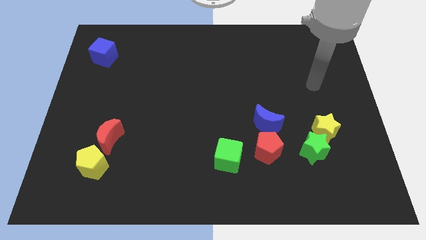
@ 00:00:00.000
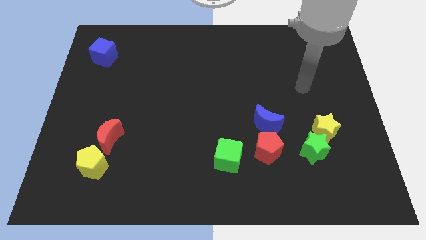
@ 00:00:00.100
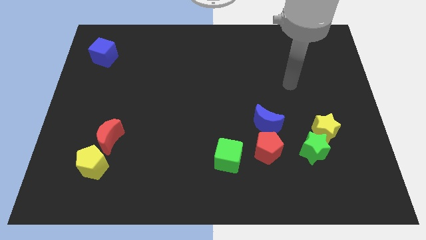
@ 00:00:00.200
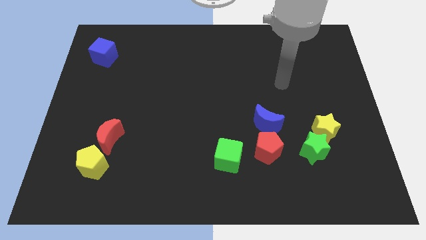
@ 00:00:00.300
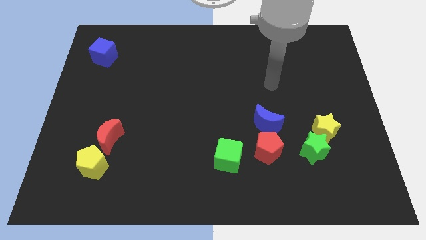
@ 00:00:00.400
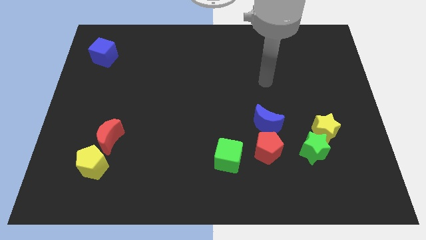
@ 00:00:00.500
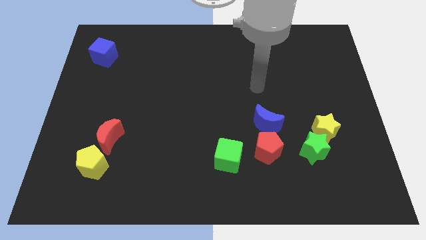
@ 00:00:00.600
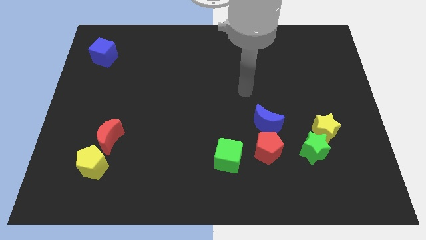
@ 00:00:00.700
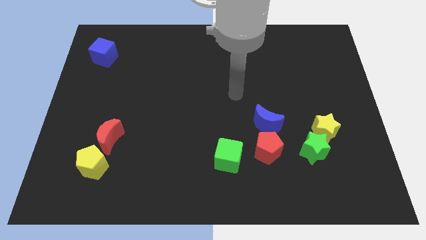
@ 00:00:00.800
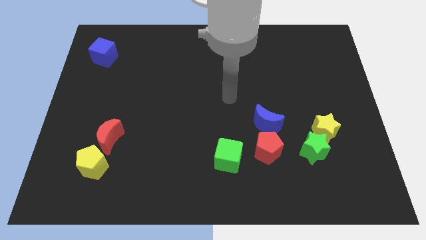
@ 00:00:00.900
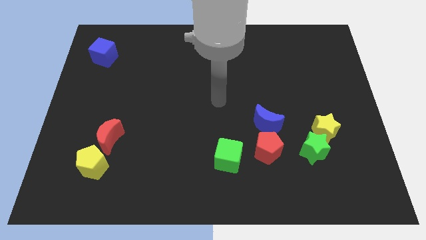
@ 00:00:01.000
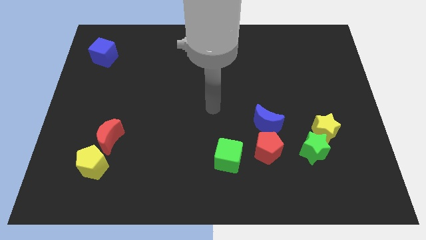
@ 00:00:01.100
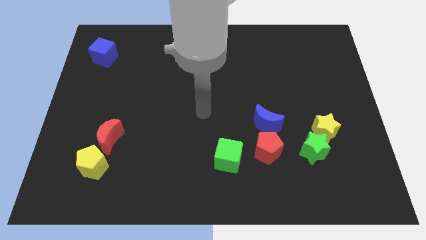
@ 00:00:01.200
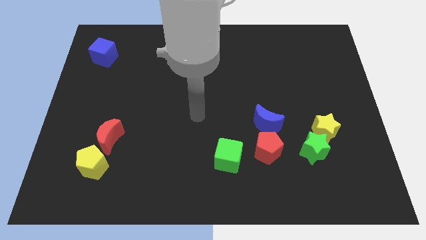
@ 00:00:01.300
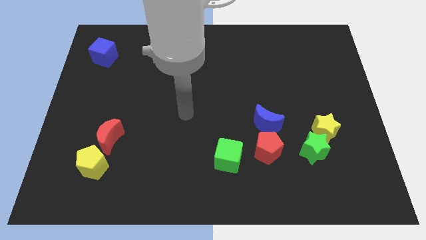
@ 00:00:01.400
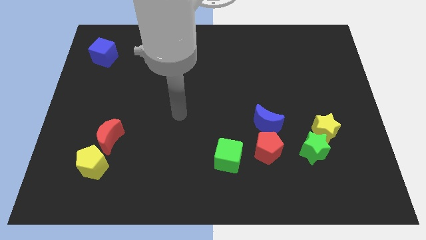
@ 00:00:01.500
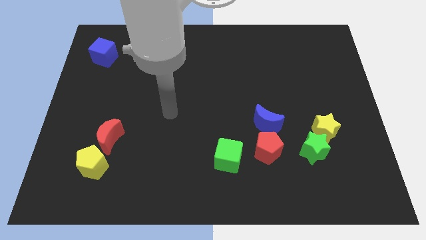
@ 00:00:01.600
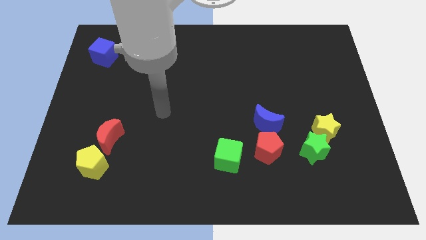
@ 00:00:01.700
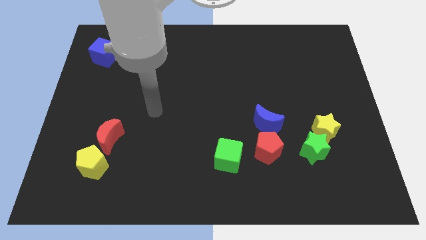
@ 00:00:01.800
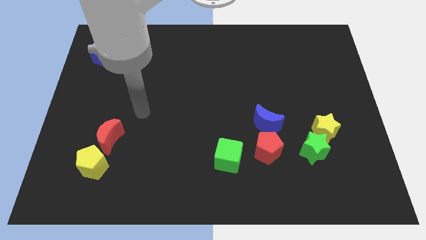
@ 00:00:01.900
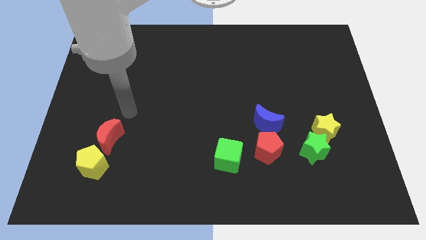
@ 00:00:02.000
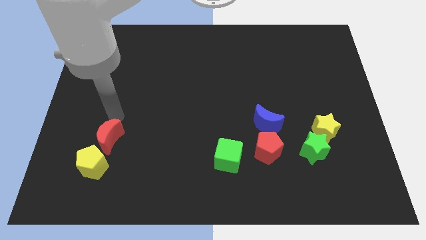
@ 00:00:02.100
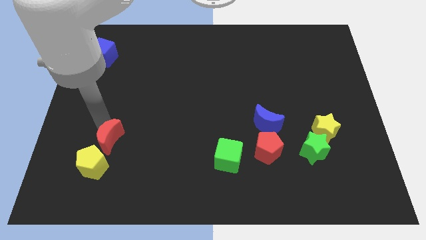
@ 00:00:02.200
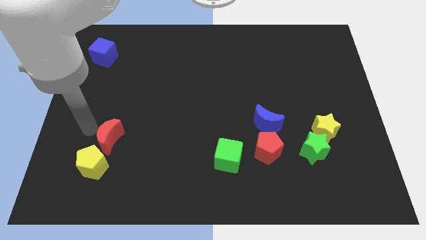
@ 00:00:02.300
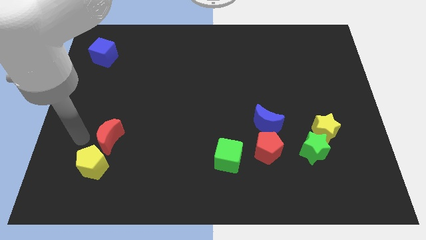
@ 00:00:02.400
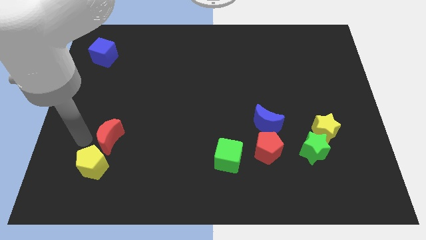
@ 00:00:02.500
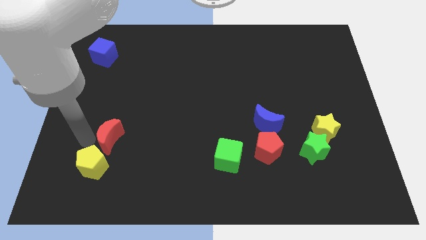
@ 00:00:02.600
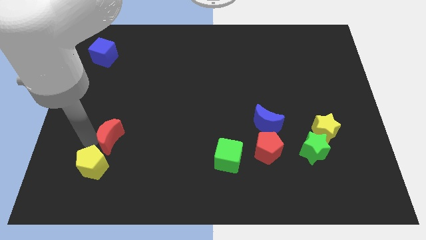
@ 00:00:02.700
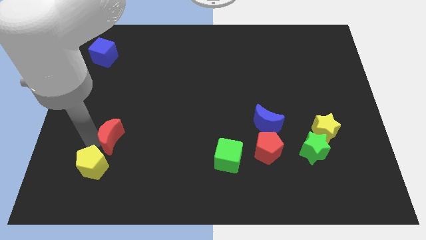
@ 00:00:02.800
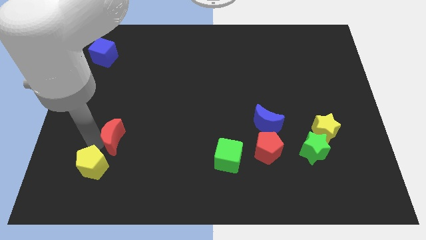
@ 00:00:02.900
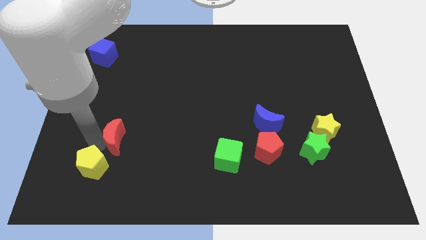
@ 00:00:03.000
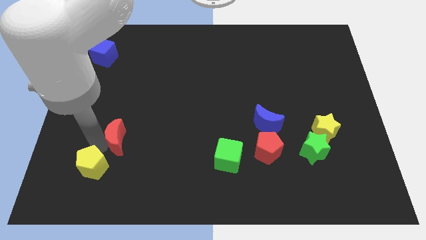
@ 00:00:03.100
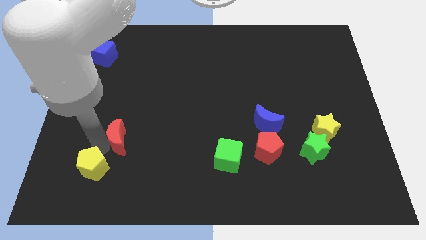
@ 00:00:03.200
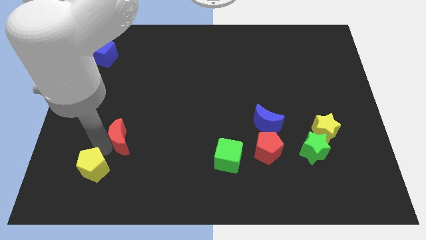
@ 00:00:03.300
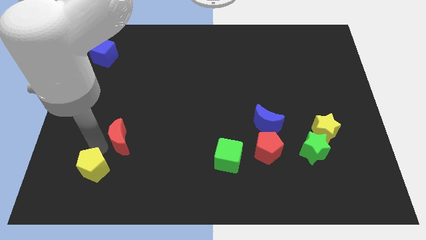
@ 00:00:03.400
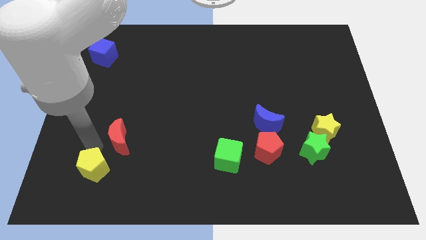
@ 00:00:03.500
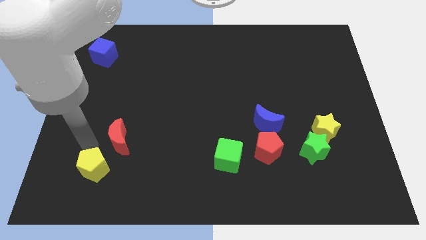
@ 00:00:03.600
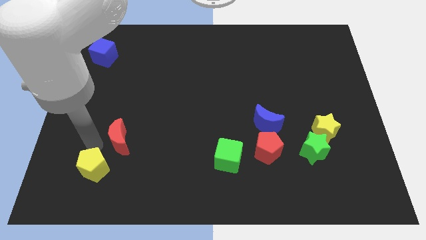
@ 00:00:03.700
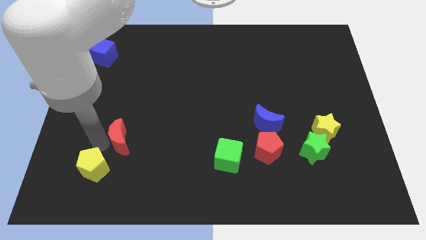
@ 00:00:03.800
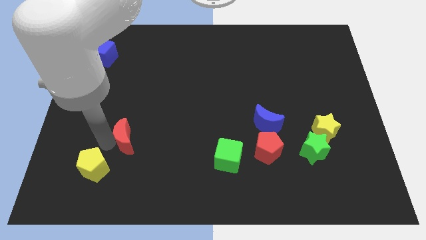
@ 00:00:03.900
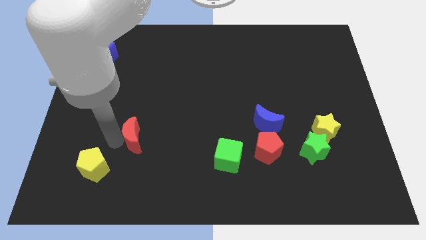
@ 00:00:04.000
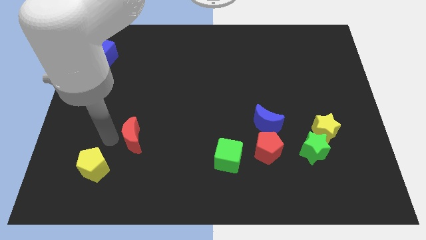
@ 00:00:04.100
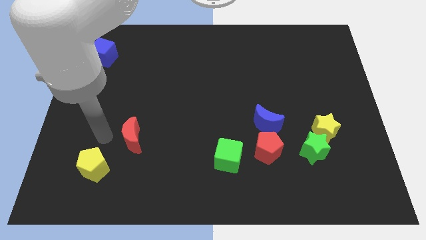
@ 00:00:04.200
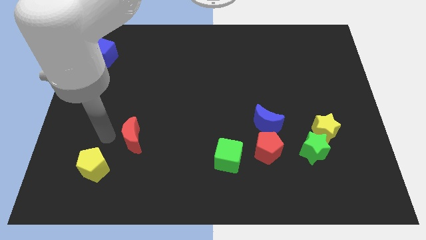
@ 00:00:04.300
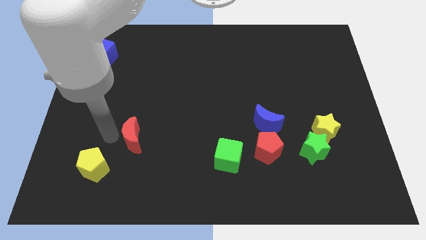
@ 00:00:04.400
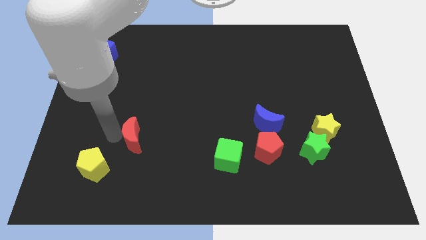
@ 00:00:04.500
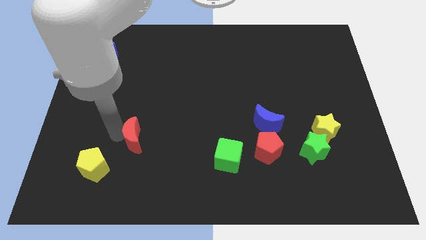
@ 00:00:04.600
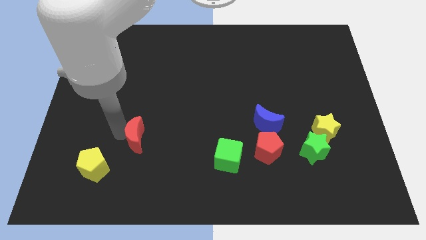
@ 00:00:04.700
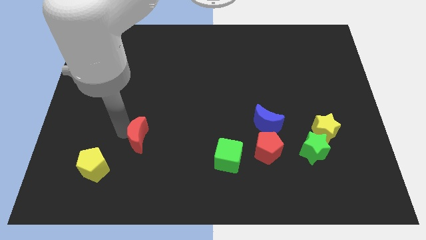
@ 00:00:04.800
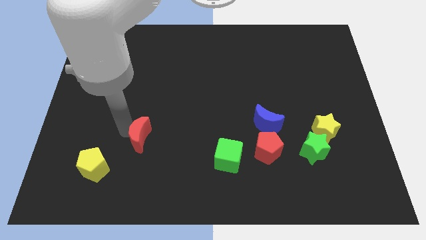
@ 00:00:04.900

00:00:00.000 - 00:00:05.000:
slightly move the red moon to the right

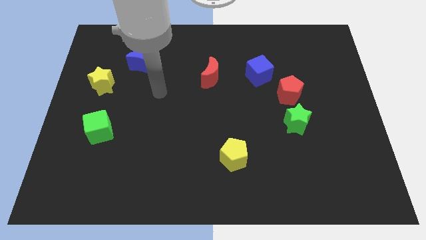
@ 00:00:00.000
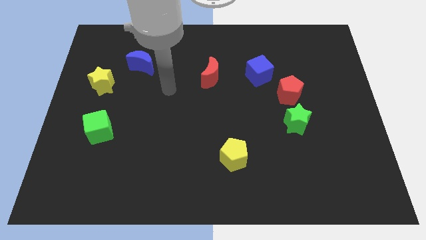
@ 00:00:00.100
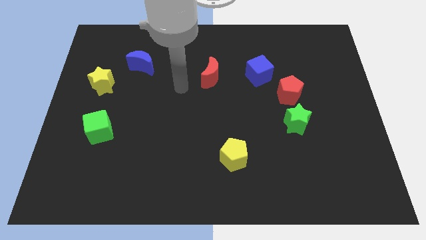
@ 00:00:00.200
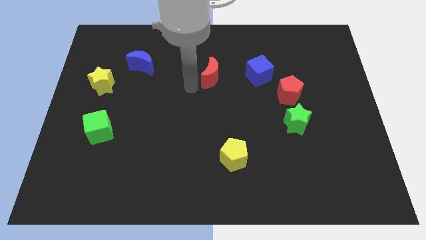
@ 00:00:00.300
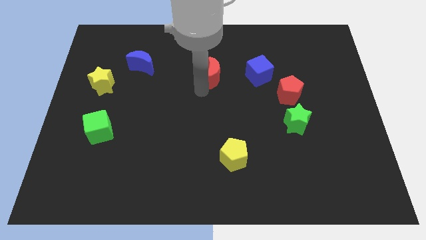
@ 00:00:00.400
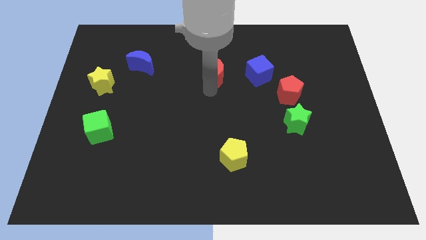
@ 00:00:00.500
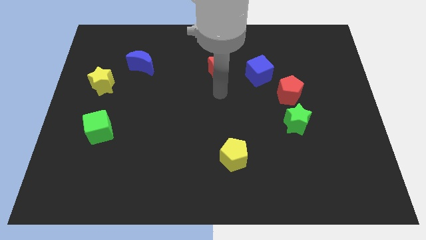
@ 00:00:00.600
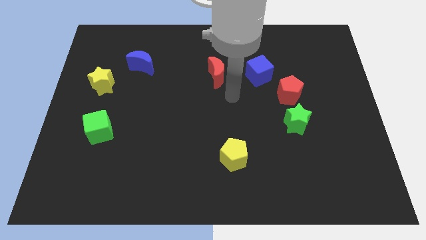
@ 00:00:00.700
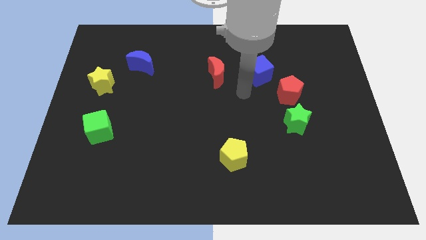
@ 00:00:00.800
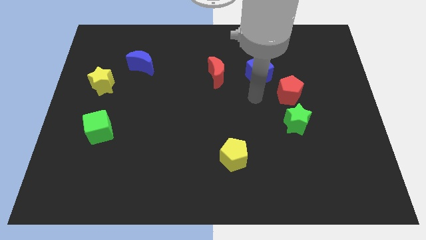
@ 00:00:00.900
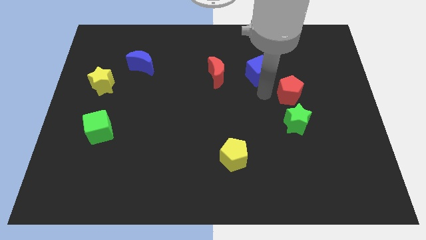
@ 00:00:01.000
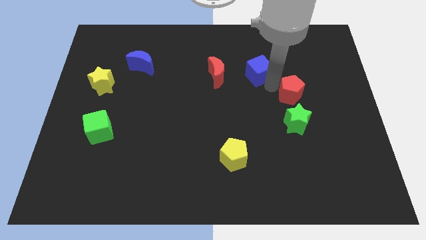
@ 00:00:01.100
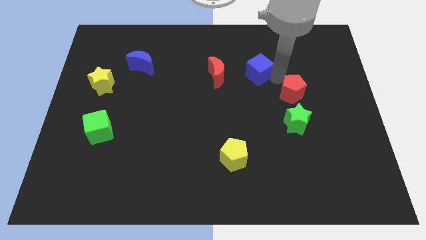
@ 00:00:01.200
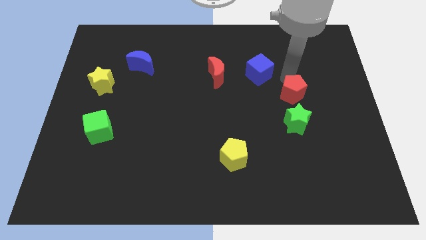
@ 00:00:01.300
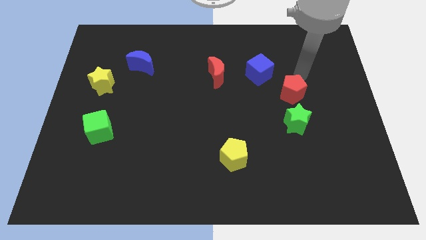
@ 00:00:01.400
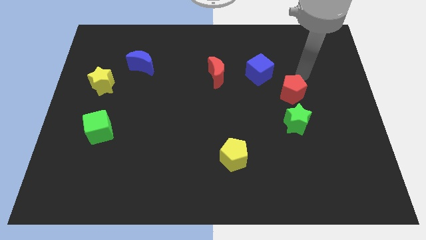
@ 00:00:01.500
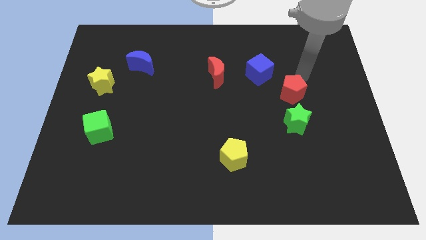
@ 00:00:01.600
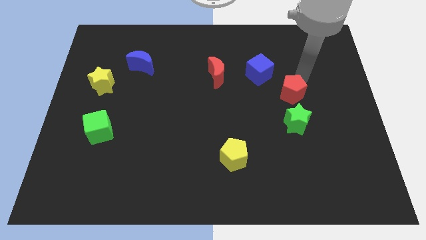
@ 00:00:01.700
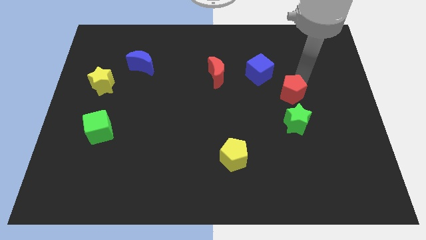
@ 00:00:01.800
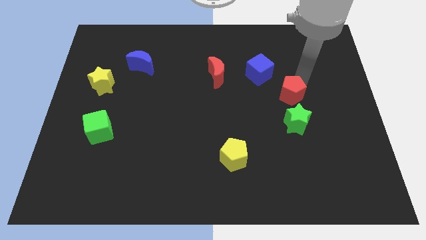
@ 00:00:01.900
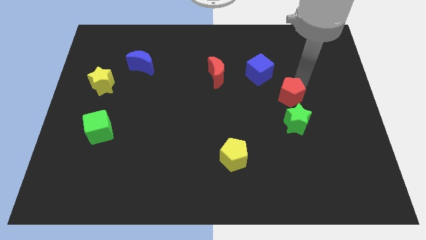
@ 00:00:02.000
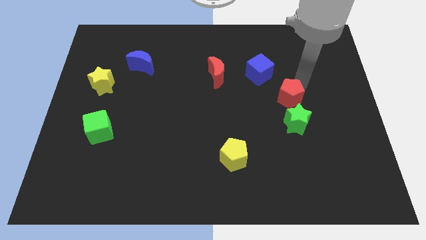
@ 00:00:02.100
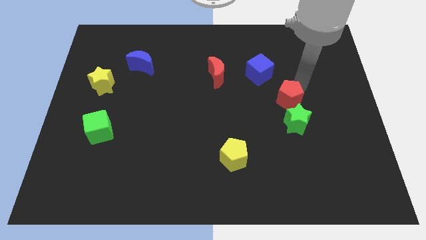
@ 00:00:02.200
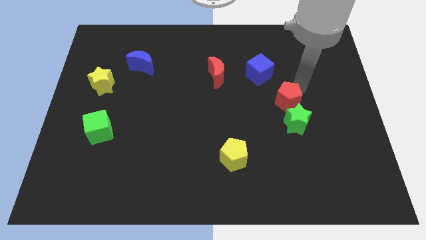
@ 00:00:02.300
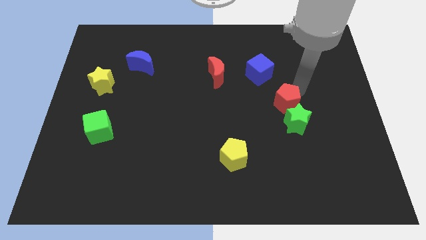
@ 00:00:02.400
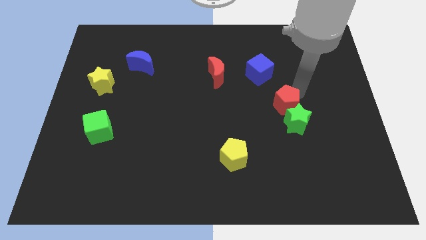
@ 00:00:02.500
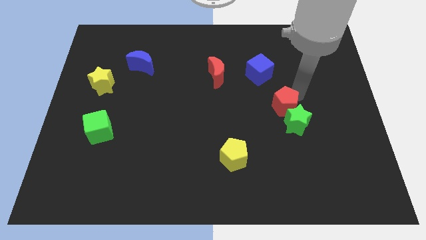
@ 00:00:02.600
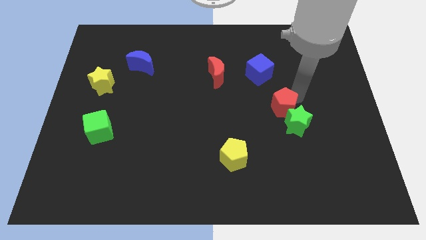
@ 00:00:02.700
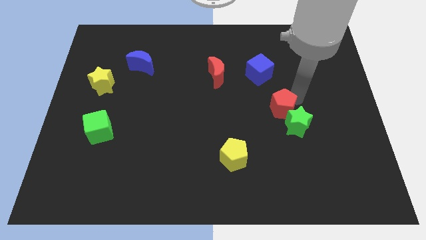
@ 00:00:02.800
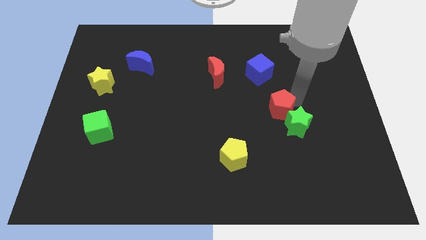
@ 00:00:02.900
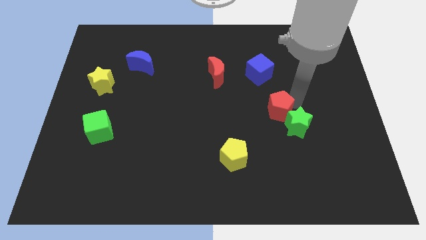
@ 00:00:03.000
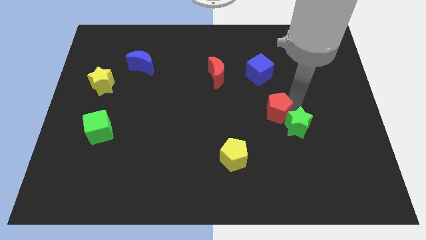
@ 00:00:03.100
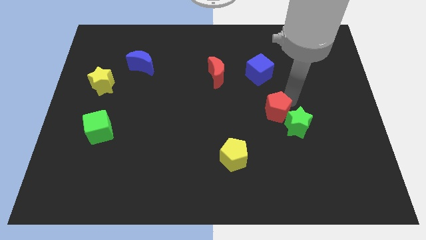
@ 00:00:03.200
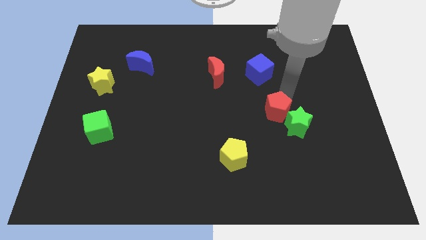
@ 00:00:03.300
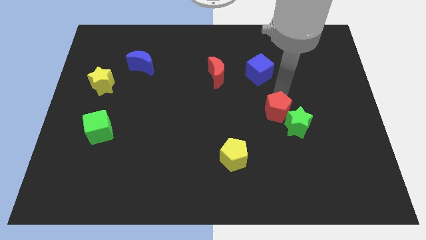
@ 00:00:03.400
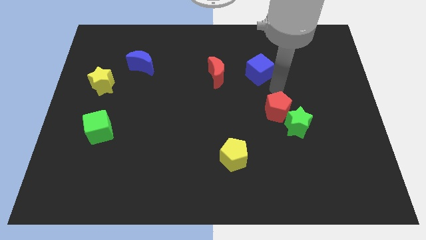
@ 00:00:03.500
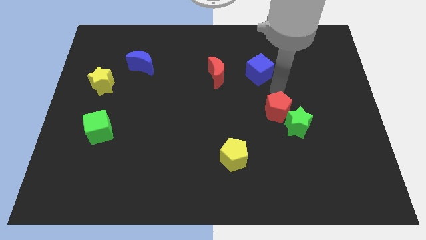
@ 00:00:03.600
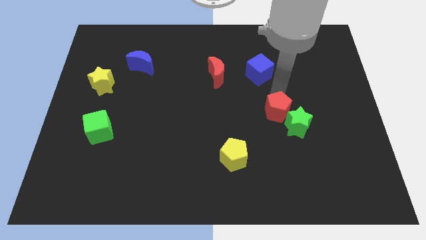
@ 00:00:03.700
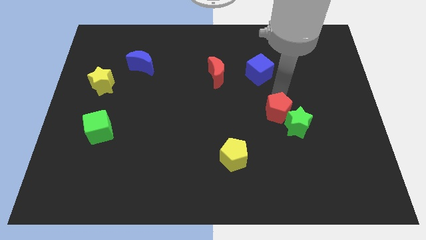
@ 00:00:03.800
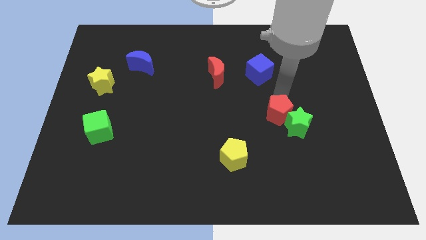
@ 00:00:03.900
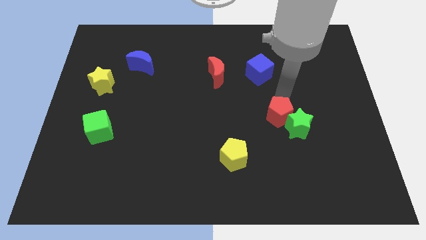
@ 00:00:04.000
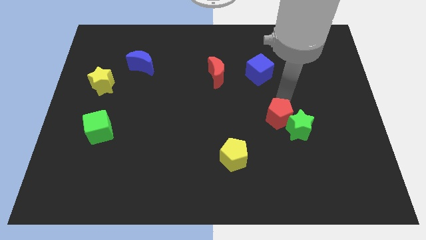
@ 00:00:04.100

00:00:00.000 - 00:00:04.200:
slightly move the red pentagon downwards
